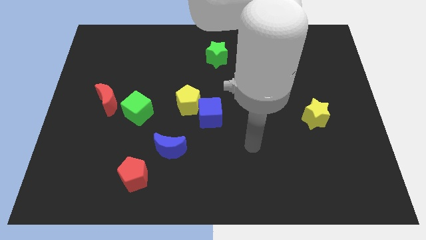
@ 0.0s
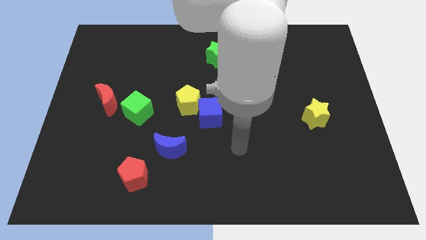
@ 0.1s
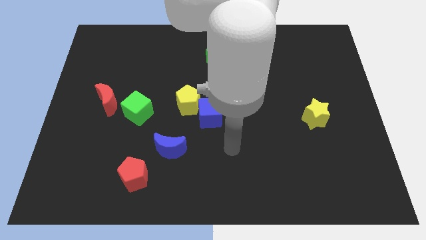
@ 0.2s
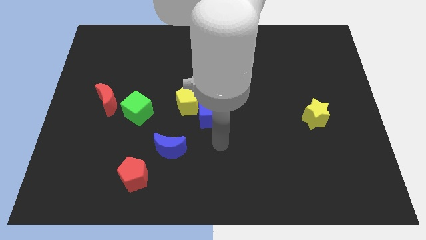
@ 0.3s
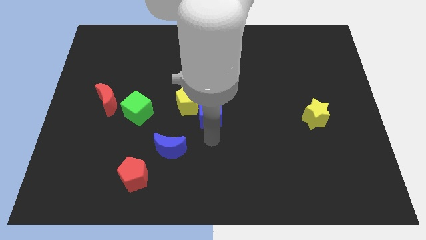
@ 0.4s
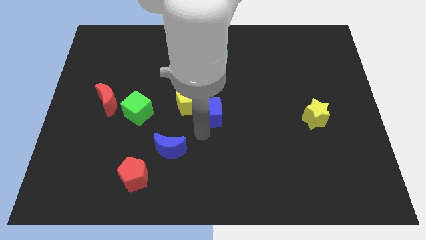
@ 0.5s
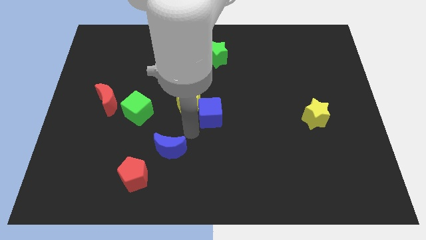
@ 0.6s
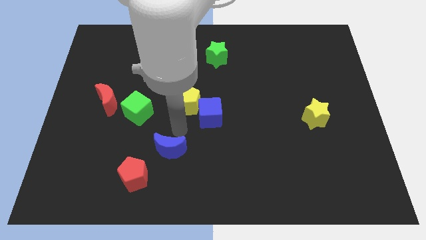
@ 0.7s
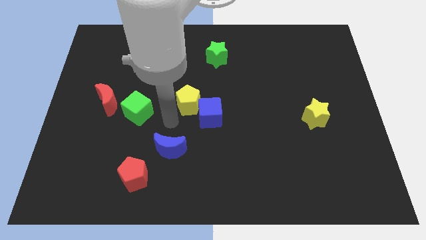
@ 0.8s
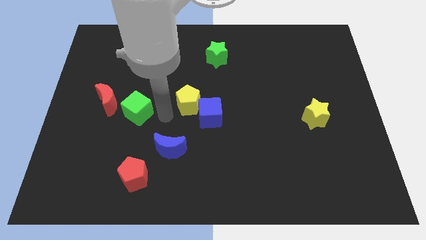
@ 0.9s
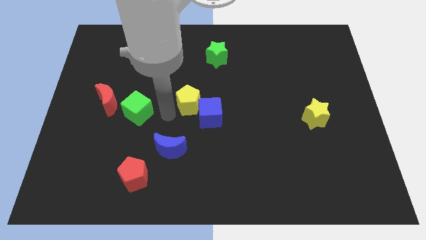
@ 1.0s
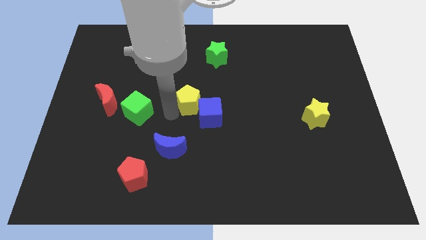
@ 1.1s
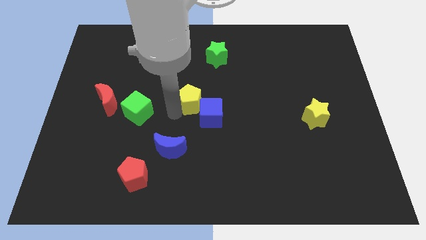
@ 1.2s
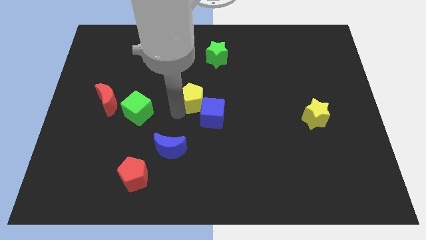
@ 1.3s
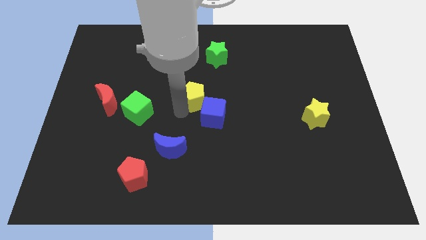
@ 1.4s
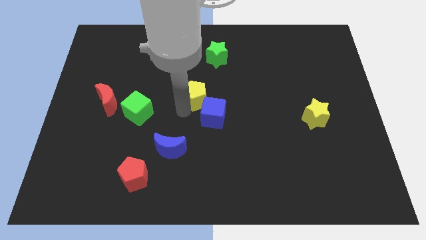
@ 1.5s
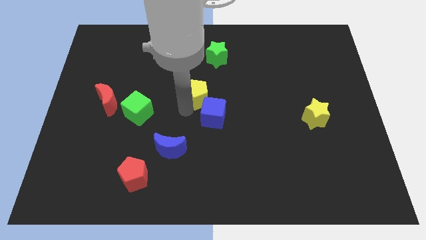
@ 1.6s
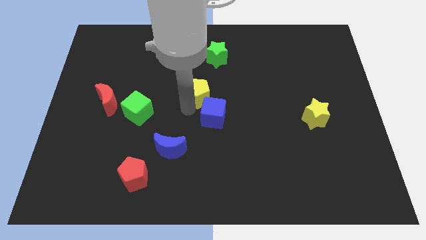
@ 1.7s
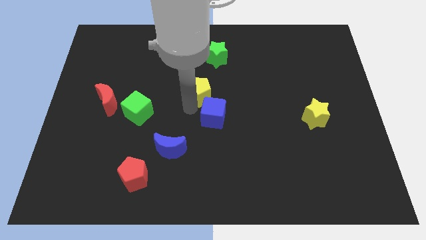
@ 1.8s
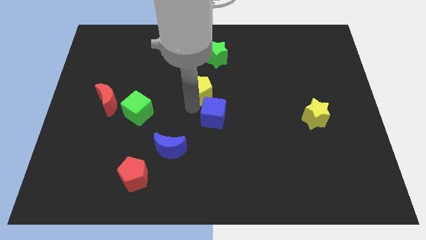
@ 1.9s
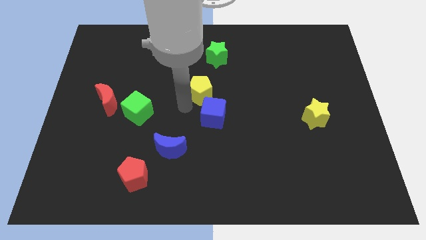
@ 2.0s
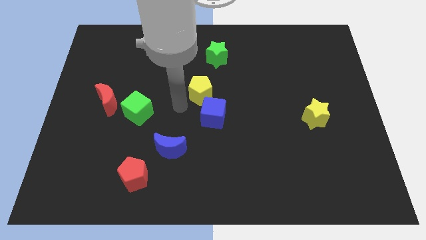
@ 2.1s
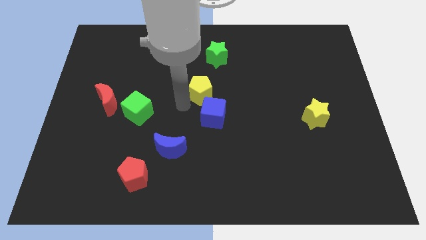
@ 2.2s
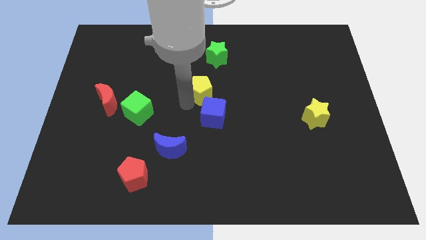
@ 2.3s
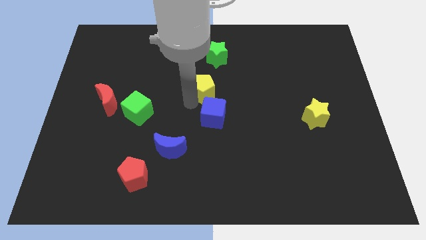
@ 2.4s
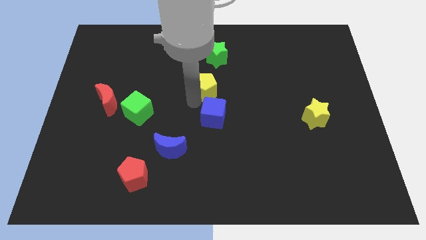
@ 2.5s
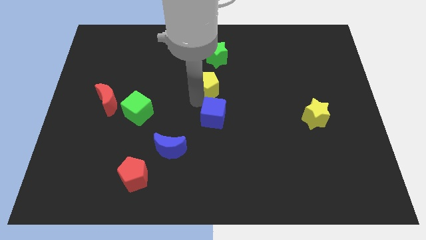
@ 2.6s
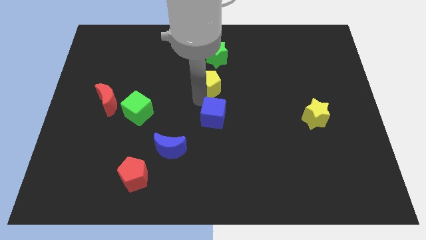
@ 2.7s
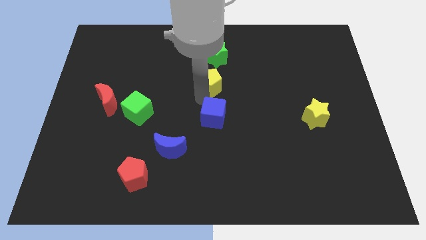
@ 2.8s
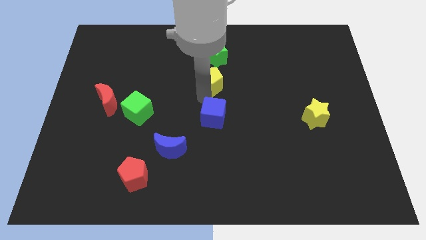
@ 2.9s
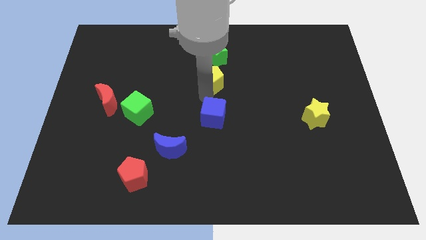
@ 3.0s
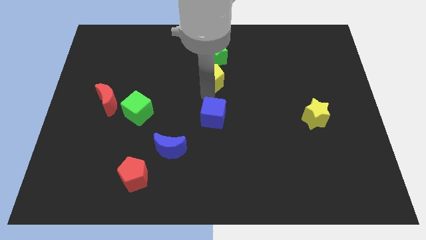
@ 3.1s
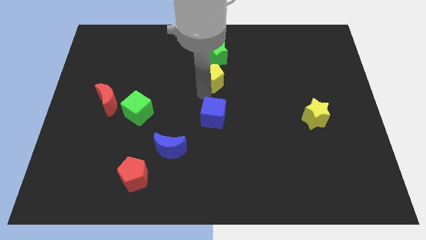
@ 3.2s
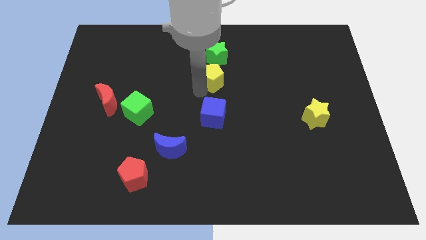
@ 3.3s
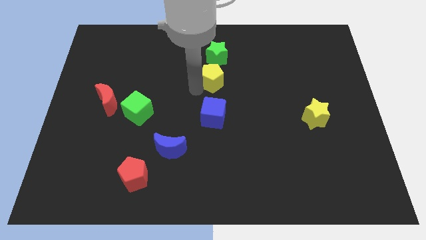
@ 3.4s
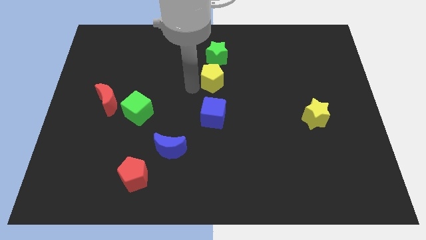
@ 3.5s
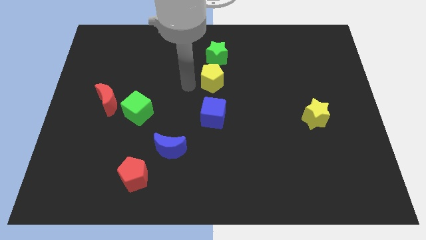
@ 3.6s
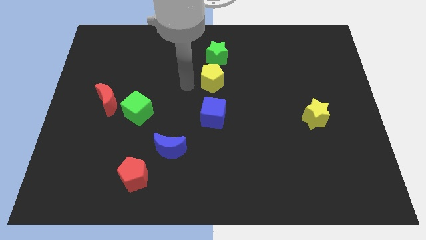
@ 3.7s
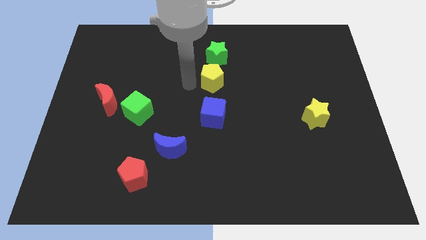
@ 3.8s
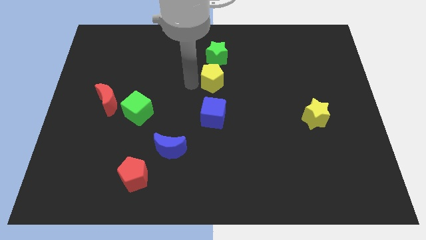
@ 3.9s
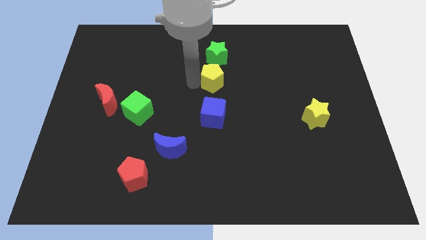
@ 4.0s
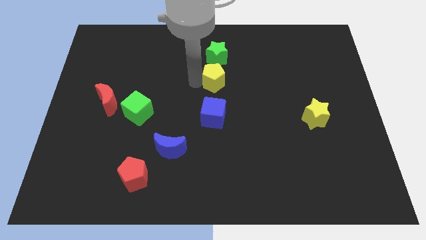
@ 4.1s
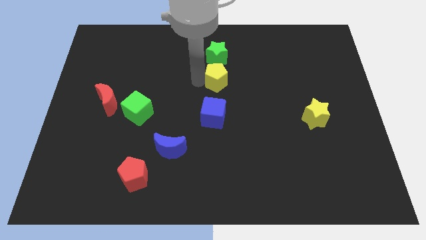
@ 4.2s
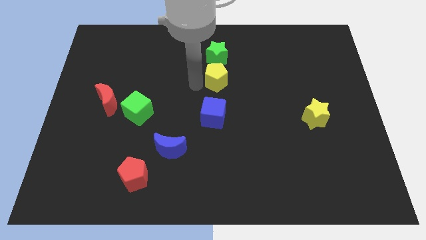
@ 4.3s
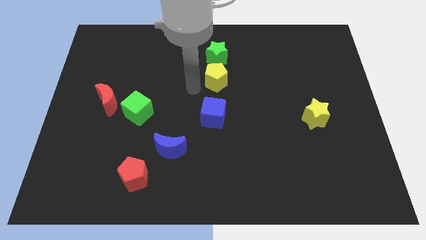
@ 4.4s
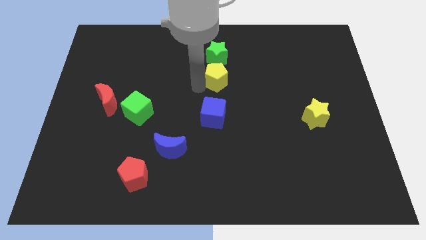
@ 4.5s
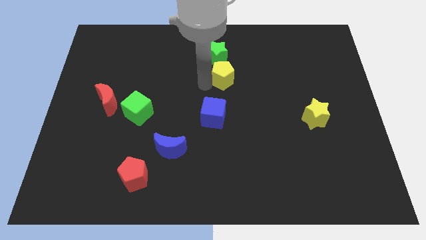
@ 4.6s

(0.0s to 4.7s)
put the yellow pentagon diagonally down and to the right of the green star

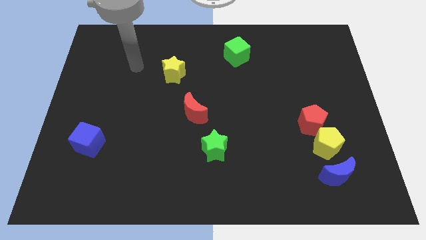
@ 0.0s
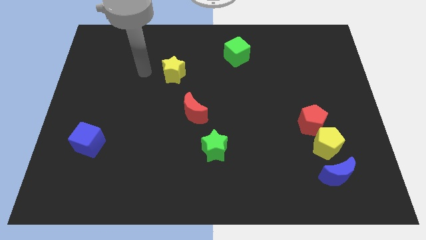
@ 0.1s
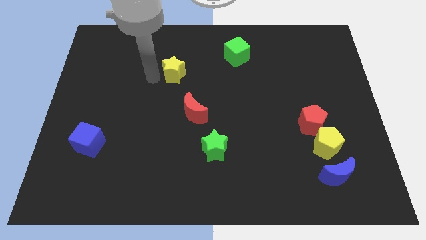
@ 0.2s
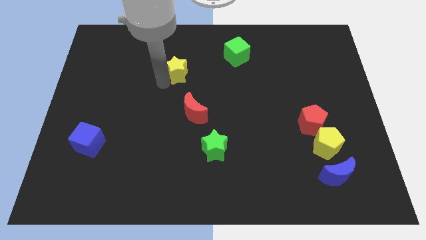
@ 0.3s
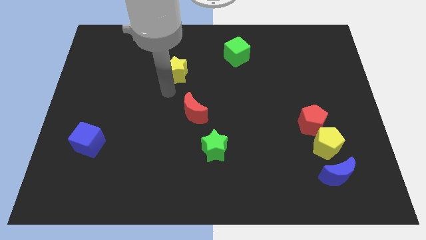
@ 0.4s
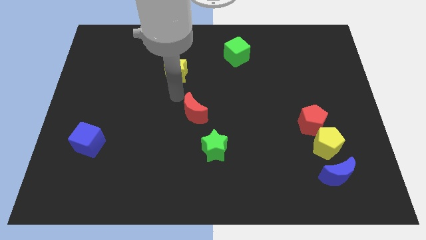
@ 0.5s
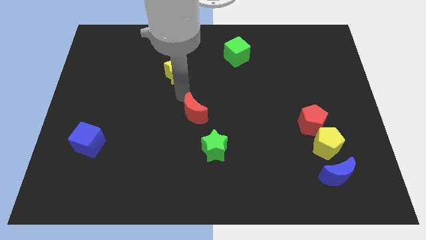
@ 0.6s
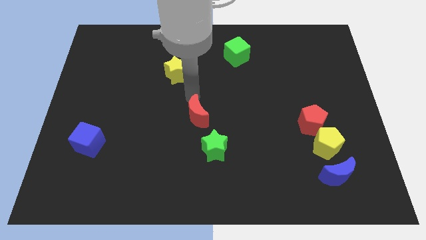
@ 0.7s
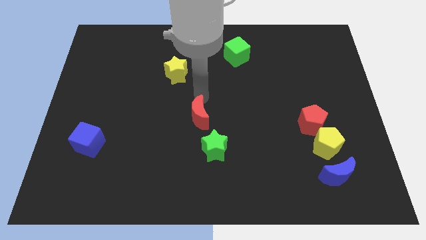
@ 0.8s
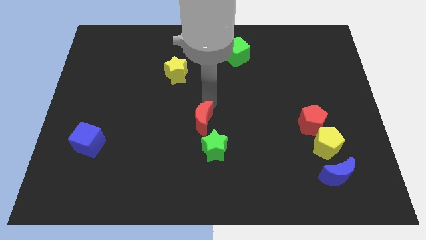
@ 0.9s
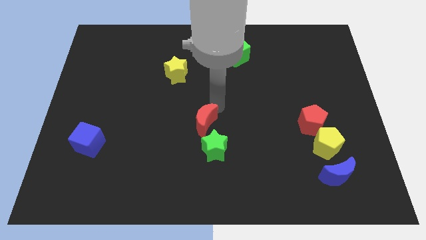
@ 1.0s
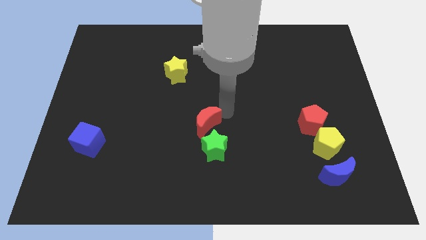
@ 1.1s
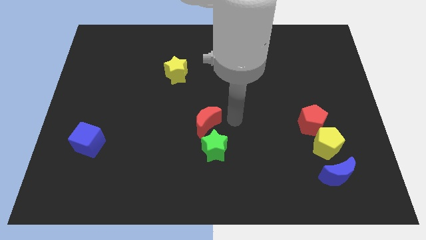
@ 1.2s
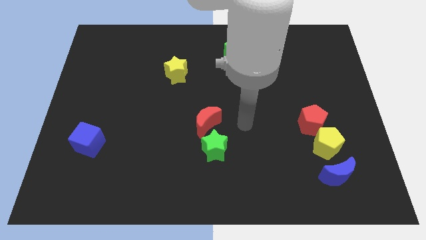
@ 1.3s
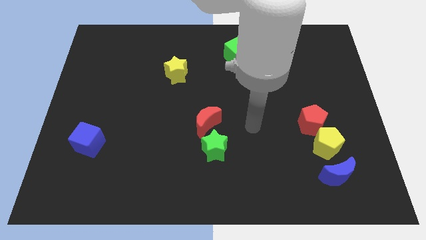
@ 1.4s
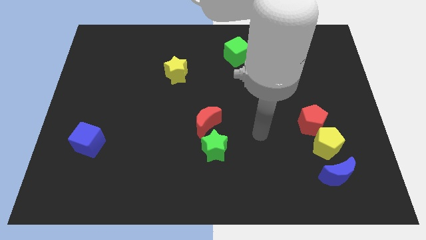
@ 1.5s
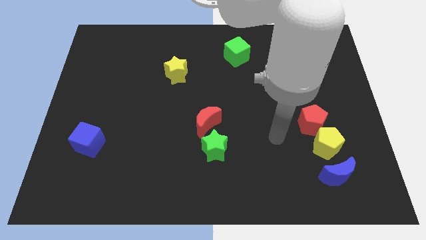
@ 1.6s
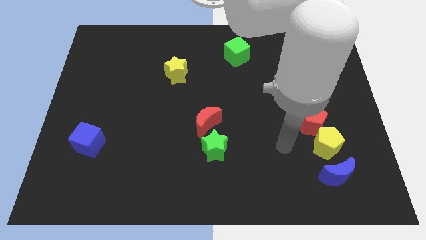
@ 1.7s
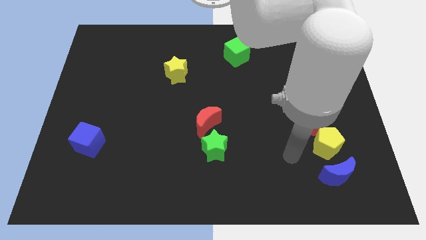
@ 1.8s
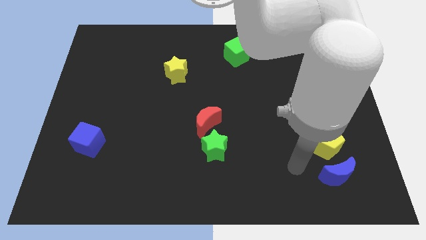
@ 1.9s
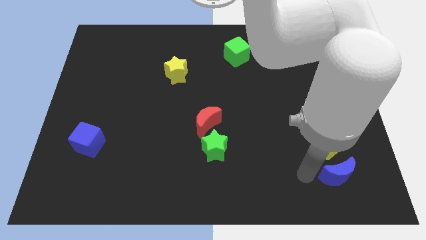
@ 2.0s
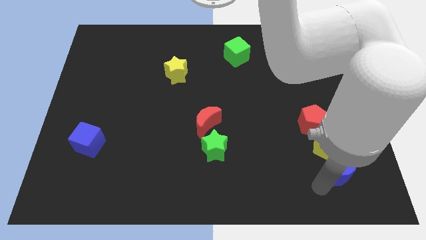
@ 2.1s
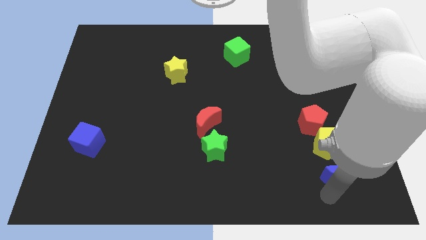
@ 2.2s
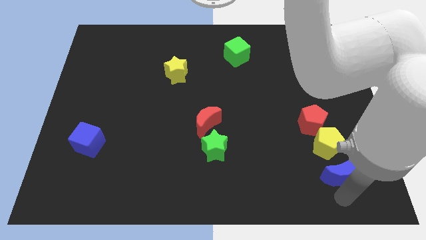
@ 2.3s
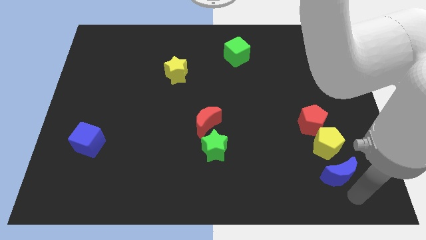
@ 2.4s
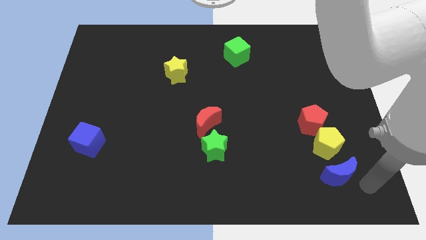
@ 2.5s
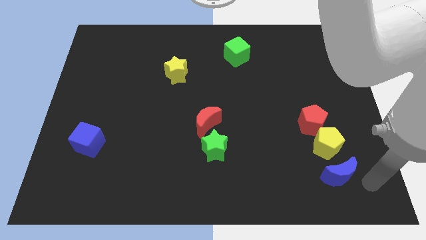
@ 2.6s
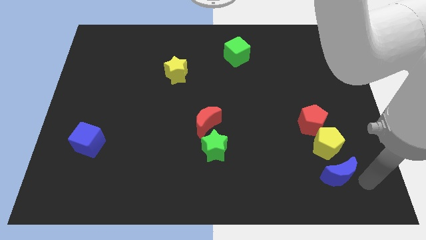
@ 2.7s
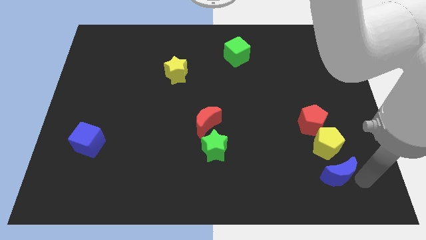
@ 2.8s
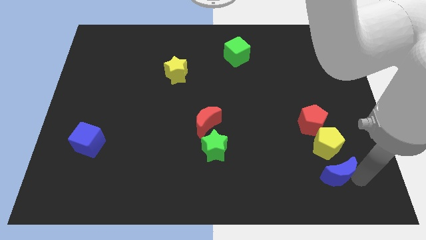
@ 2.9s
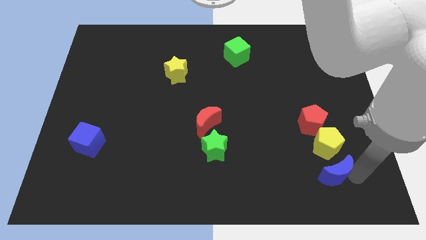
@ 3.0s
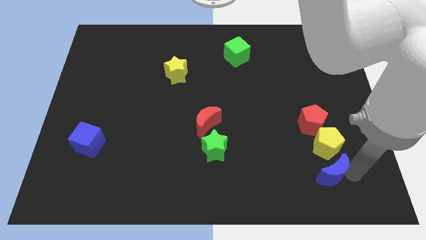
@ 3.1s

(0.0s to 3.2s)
move the blue moon diagonally down and to the left of the yellow pentagon

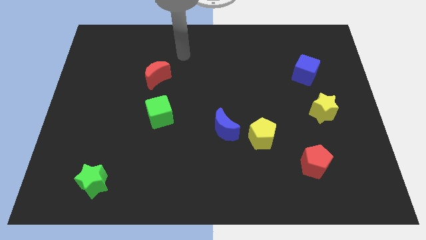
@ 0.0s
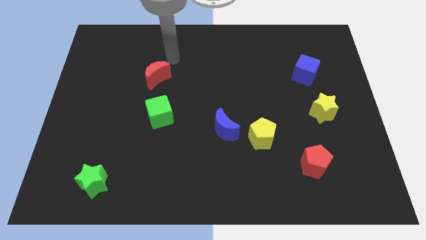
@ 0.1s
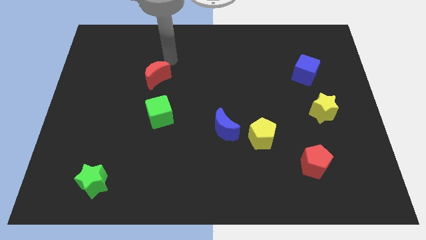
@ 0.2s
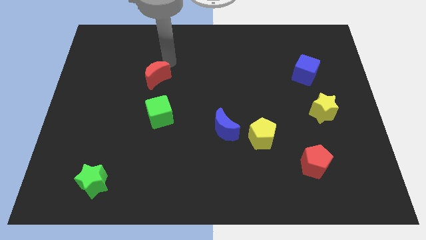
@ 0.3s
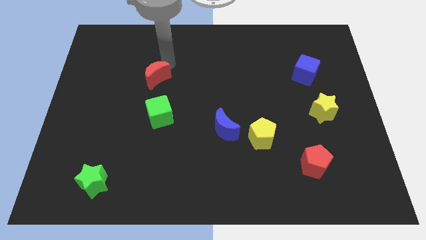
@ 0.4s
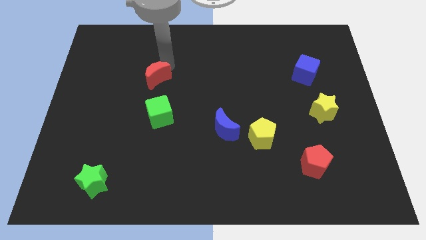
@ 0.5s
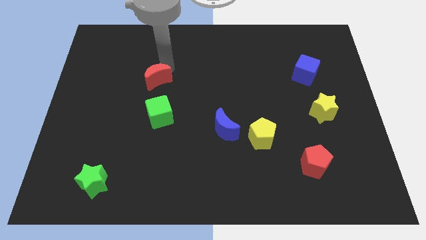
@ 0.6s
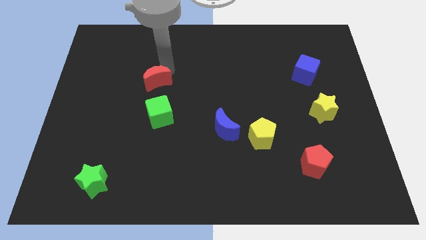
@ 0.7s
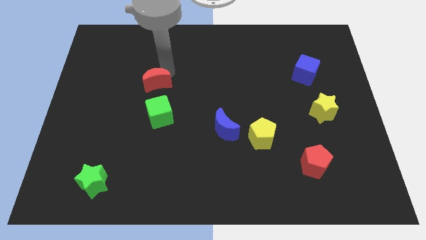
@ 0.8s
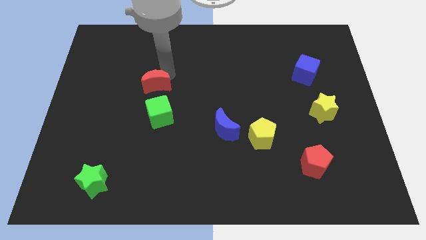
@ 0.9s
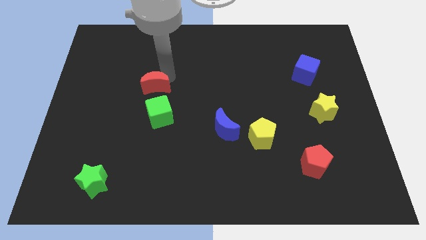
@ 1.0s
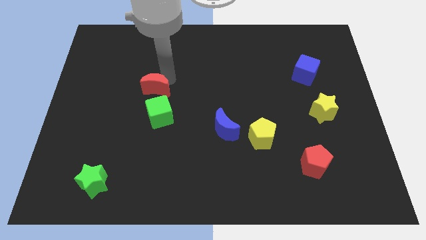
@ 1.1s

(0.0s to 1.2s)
put the red moon to the top left of the green cube
